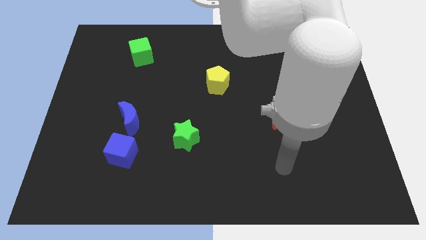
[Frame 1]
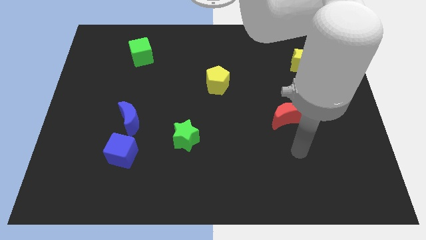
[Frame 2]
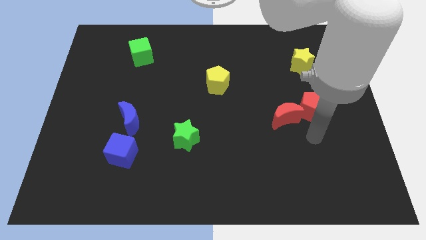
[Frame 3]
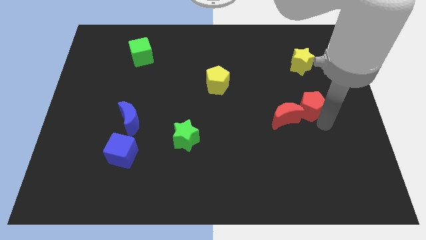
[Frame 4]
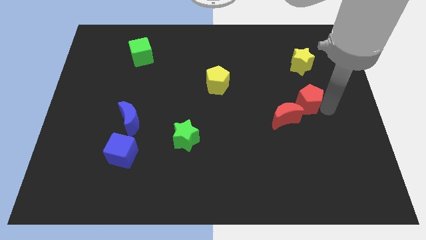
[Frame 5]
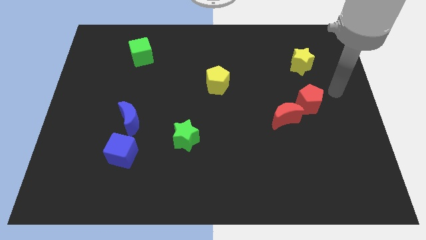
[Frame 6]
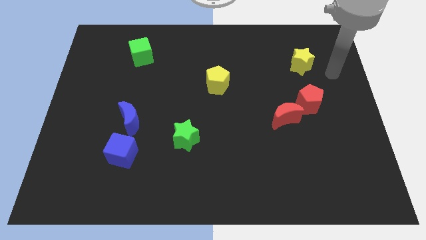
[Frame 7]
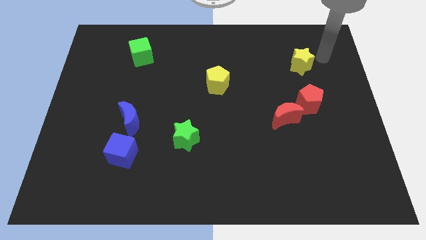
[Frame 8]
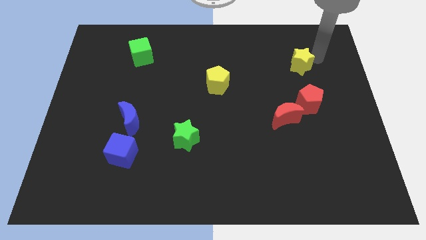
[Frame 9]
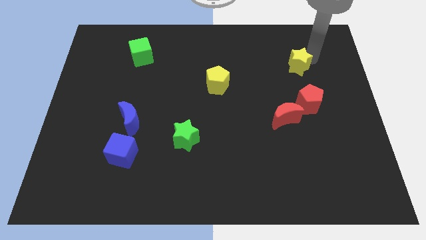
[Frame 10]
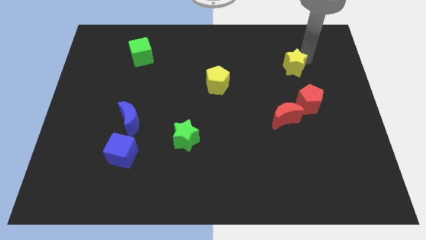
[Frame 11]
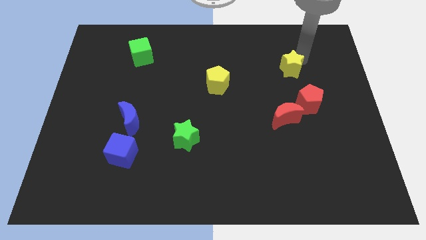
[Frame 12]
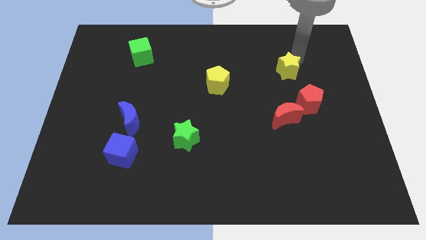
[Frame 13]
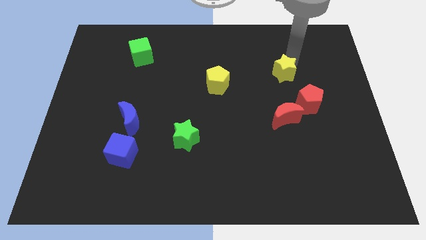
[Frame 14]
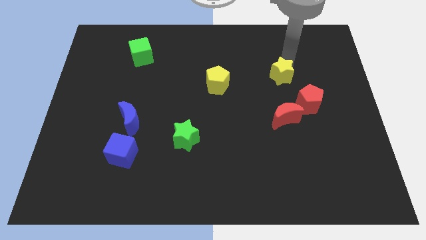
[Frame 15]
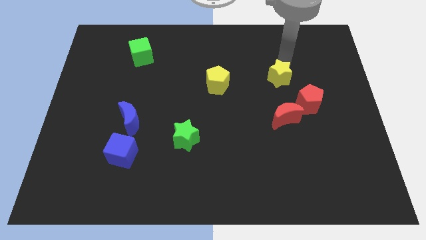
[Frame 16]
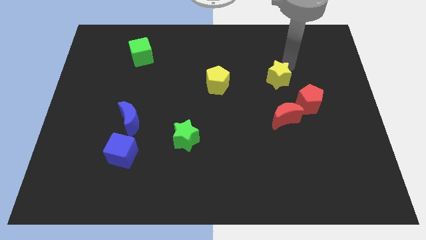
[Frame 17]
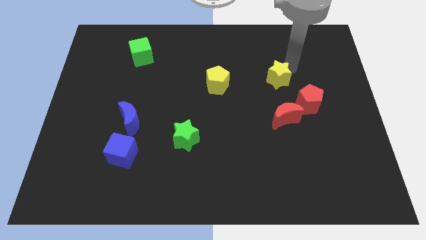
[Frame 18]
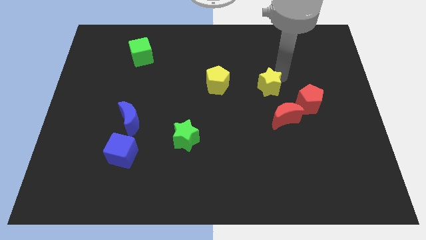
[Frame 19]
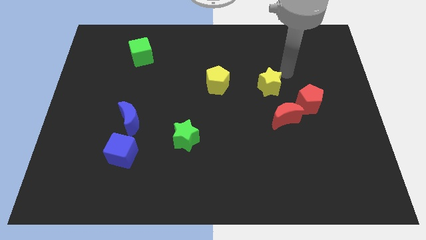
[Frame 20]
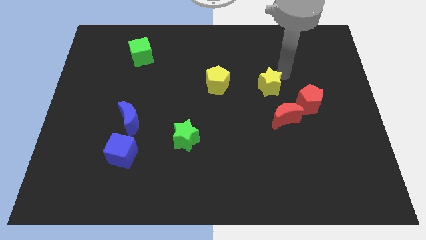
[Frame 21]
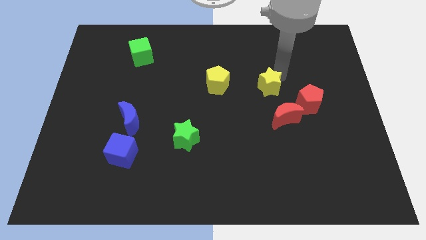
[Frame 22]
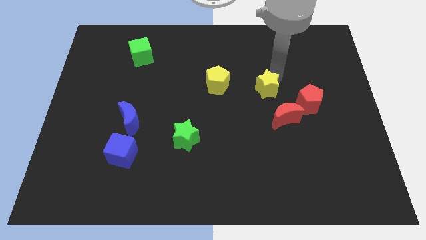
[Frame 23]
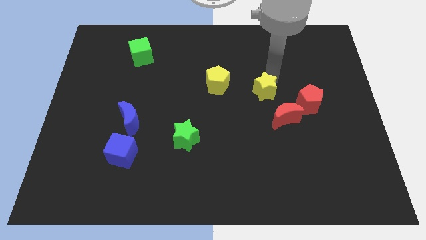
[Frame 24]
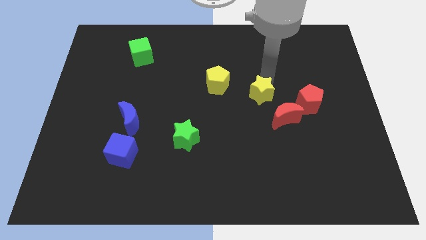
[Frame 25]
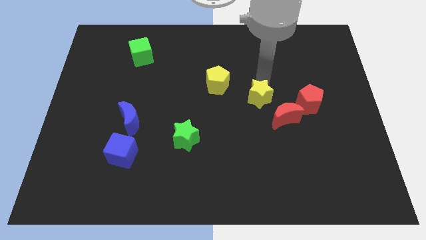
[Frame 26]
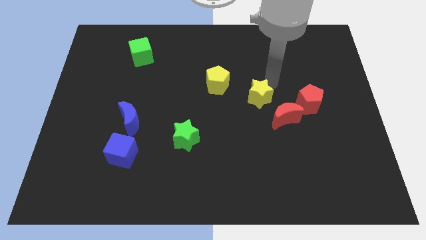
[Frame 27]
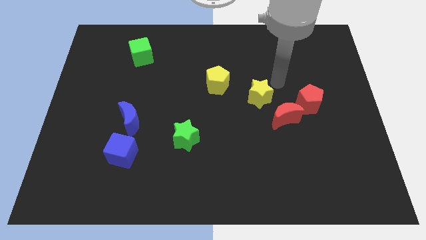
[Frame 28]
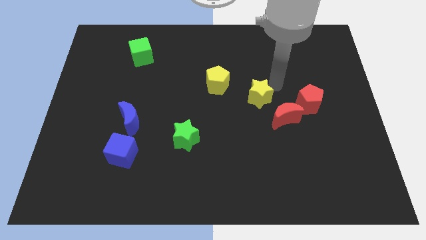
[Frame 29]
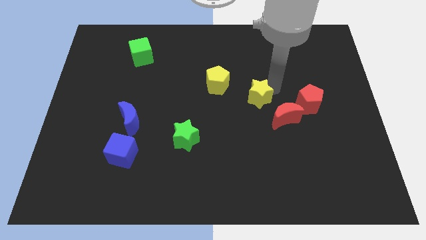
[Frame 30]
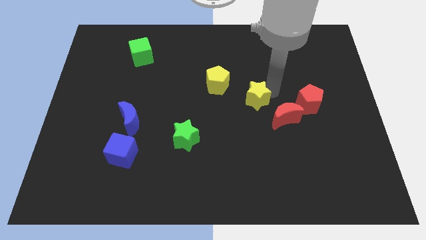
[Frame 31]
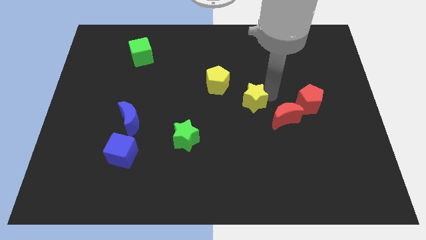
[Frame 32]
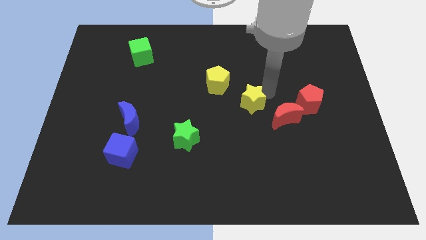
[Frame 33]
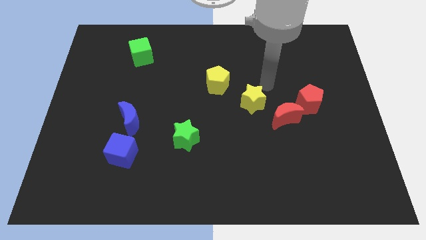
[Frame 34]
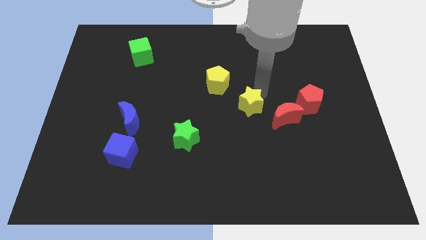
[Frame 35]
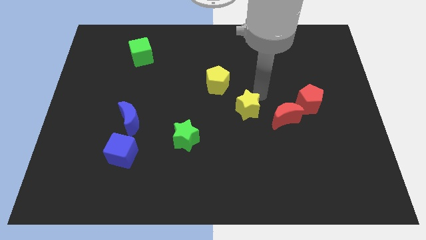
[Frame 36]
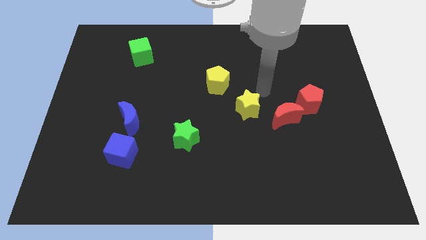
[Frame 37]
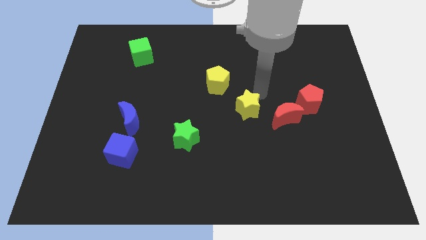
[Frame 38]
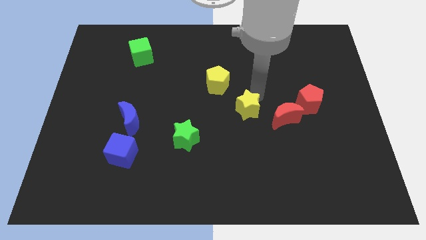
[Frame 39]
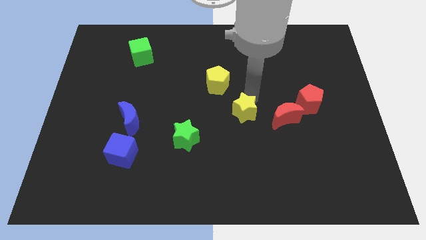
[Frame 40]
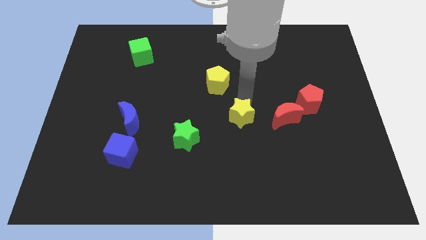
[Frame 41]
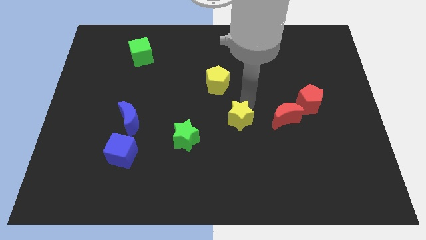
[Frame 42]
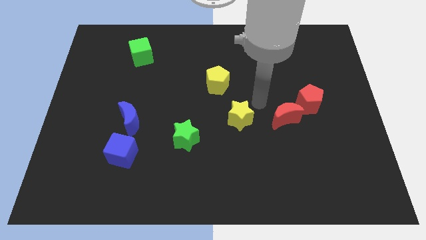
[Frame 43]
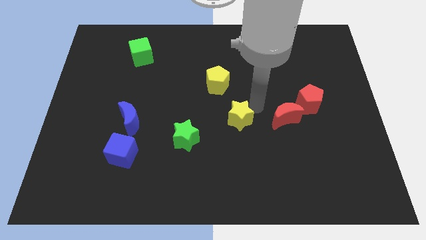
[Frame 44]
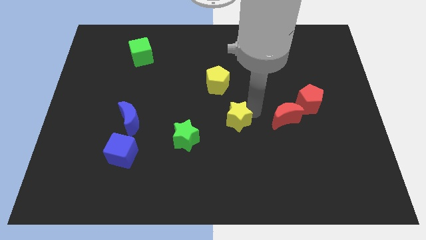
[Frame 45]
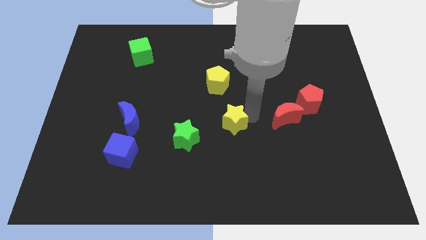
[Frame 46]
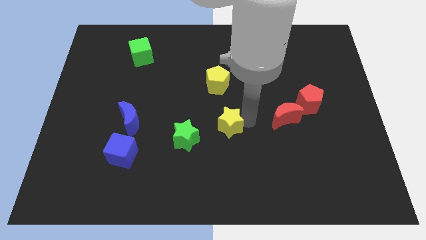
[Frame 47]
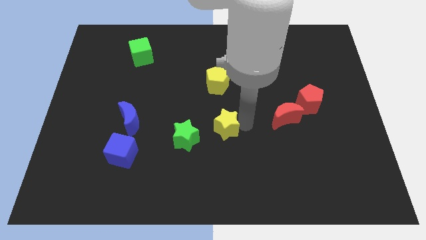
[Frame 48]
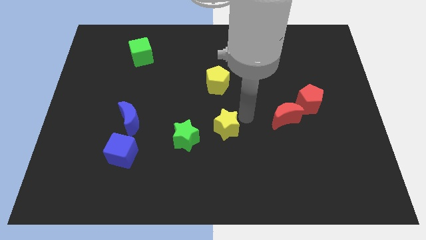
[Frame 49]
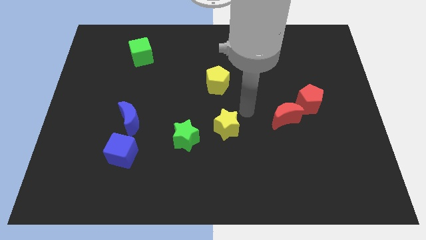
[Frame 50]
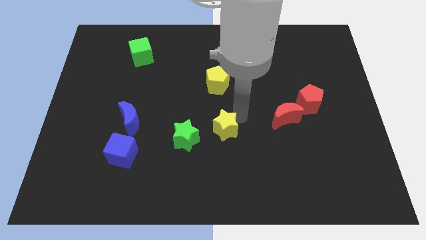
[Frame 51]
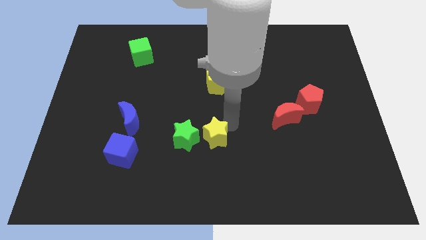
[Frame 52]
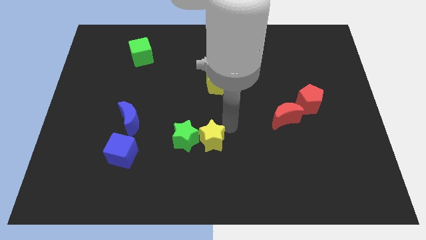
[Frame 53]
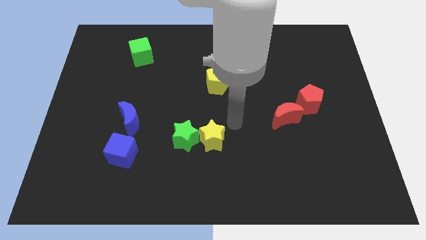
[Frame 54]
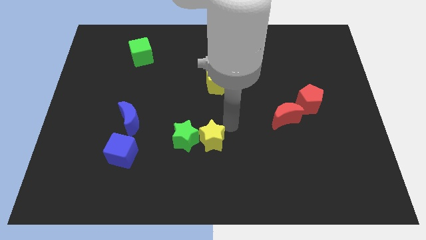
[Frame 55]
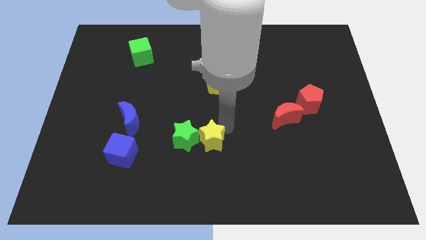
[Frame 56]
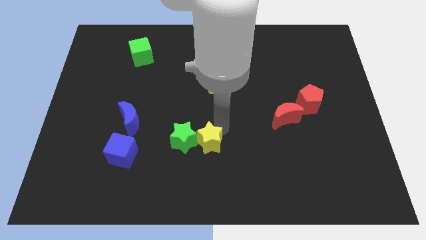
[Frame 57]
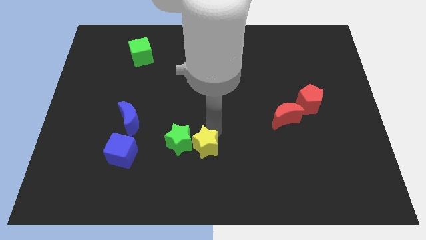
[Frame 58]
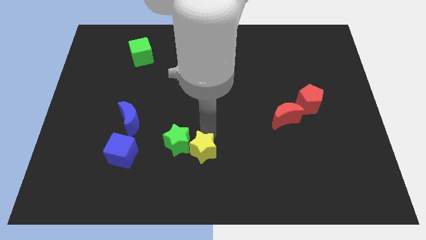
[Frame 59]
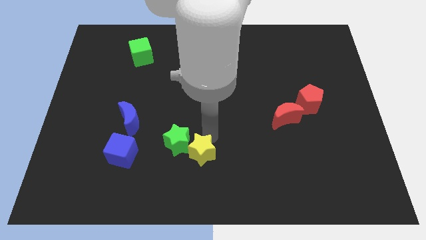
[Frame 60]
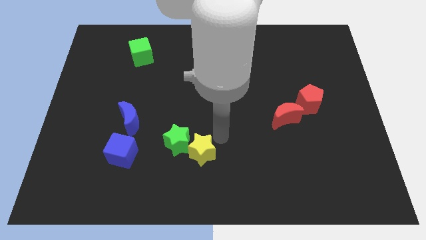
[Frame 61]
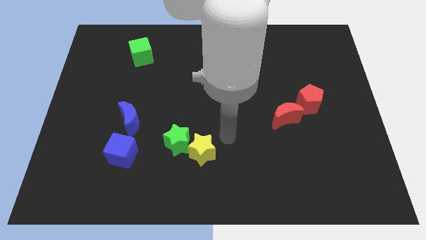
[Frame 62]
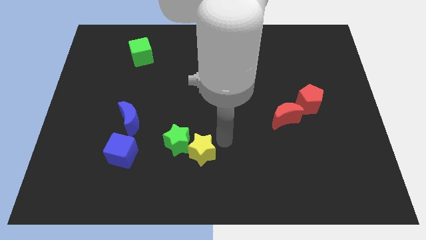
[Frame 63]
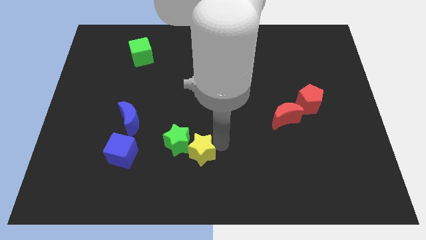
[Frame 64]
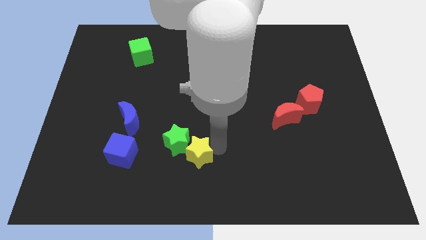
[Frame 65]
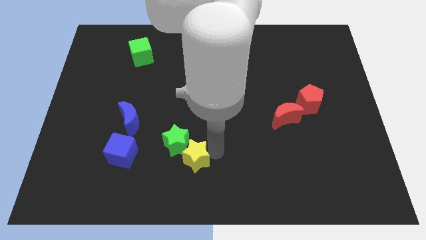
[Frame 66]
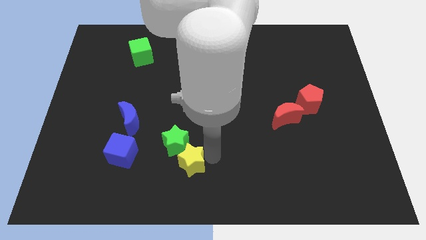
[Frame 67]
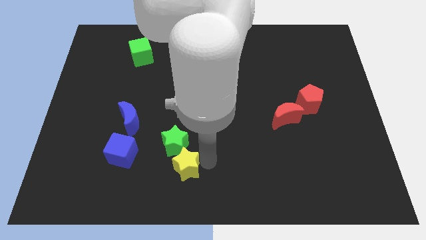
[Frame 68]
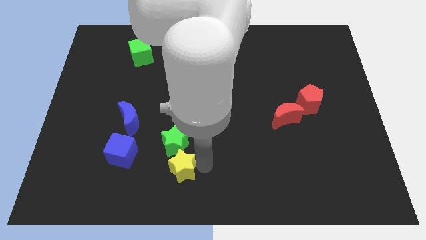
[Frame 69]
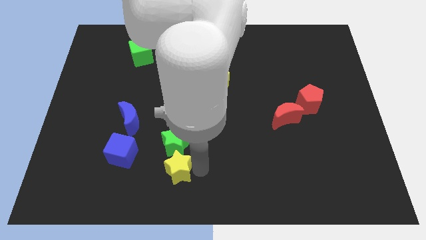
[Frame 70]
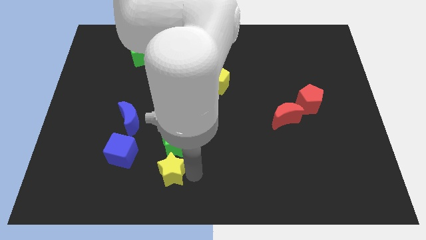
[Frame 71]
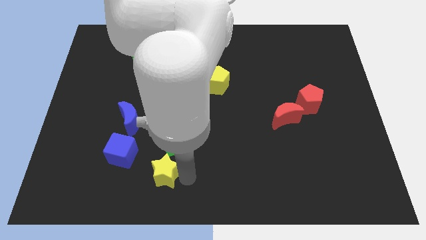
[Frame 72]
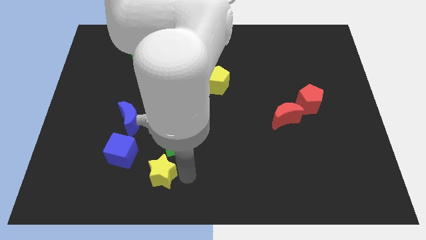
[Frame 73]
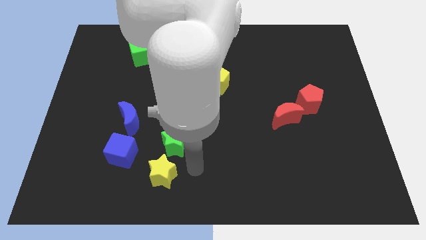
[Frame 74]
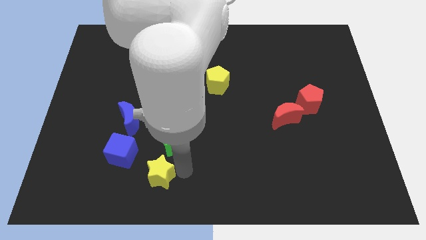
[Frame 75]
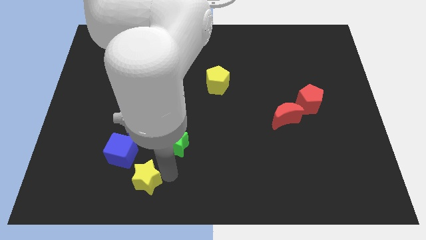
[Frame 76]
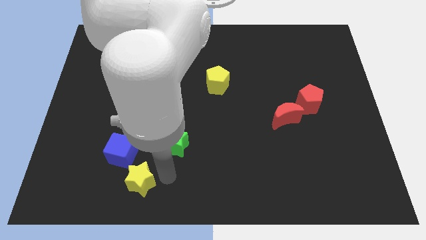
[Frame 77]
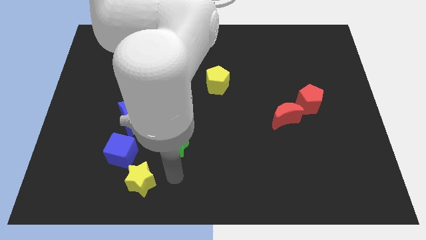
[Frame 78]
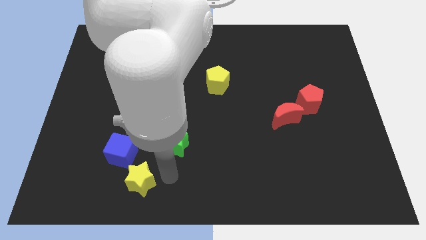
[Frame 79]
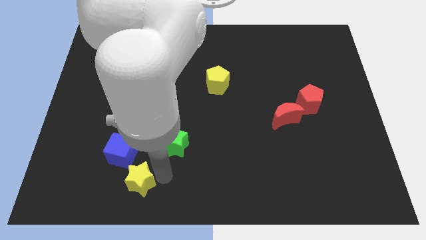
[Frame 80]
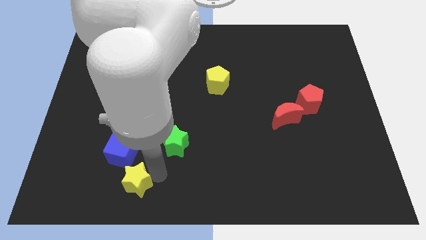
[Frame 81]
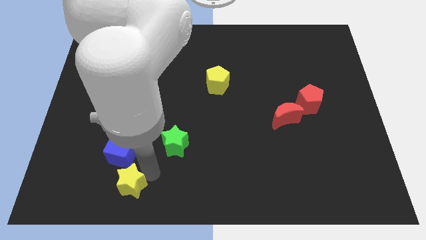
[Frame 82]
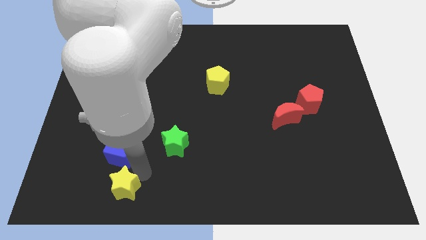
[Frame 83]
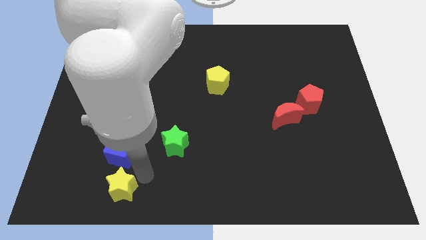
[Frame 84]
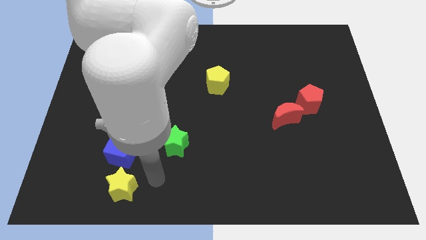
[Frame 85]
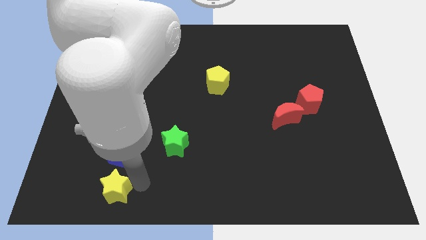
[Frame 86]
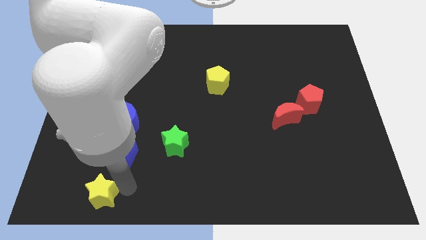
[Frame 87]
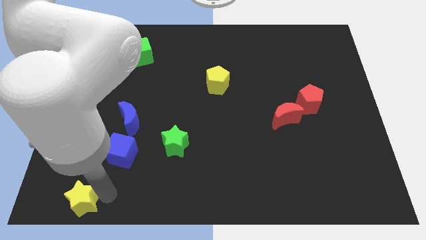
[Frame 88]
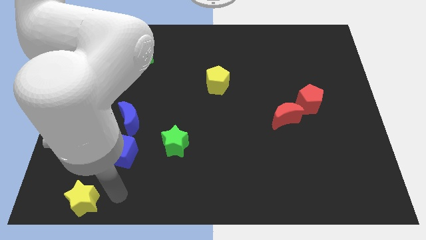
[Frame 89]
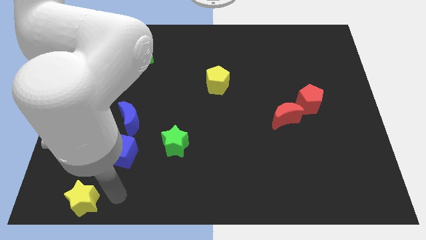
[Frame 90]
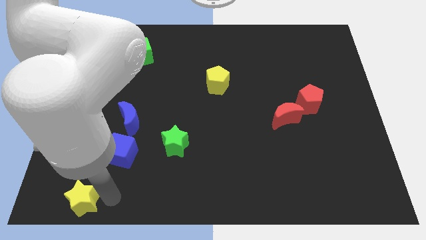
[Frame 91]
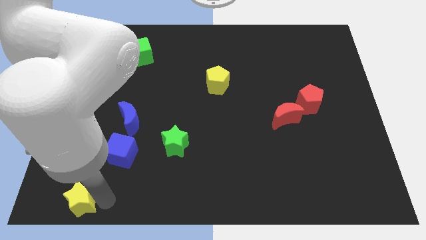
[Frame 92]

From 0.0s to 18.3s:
put the yellow star to the lower left corner
